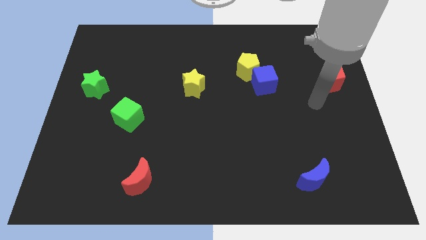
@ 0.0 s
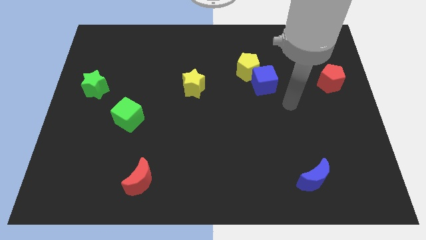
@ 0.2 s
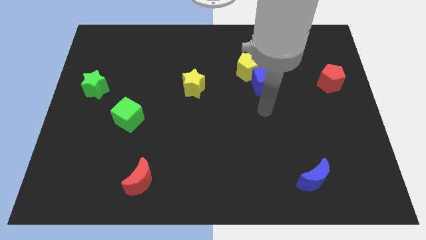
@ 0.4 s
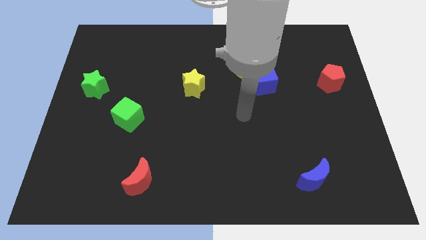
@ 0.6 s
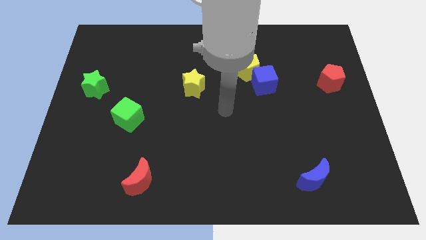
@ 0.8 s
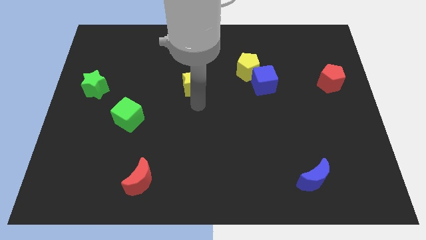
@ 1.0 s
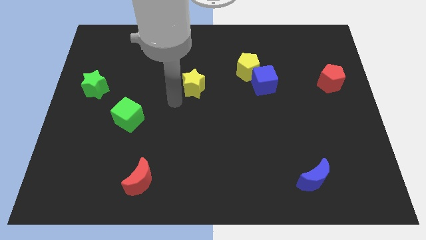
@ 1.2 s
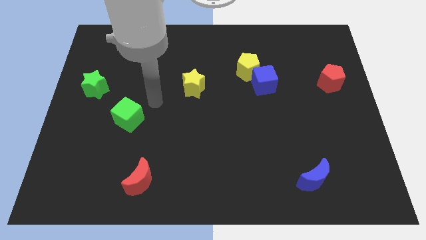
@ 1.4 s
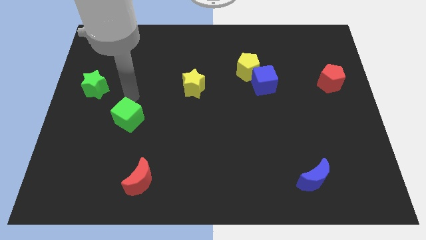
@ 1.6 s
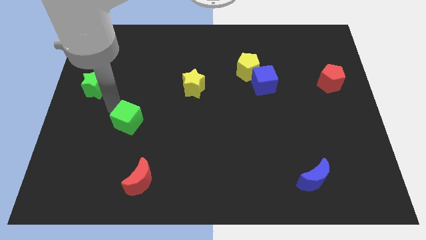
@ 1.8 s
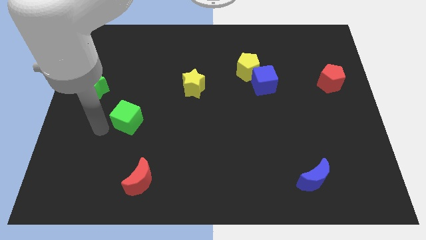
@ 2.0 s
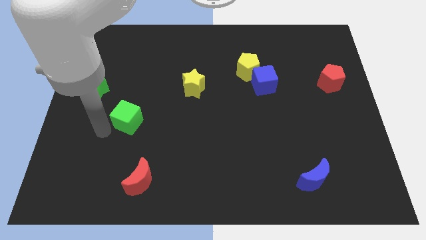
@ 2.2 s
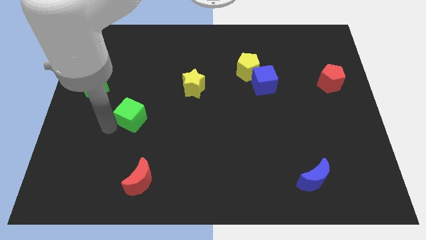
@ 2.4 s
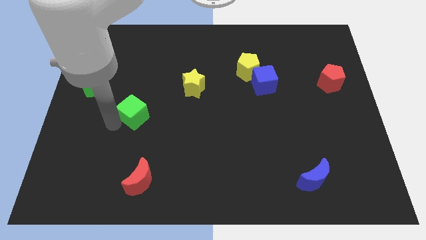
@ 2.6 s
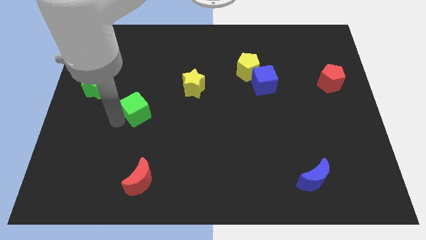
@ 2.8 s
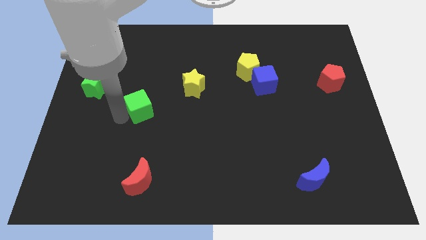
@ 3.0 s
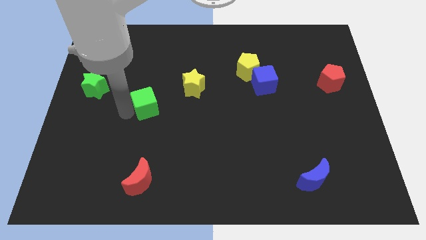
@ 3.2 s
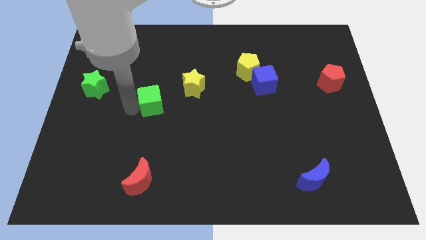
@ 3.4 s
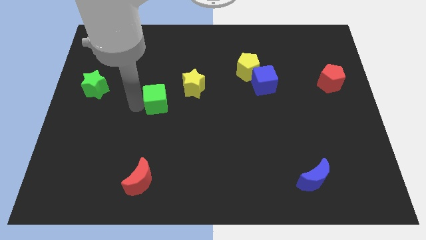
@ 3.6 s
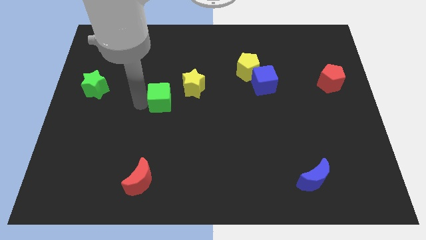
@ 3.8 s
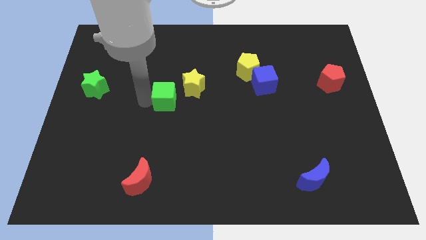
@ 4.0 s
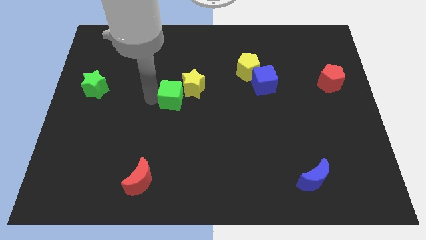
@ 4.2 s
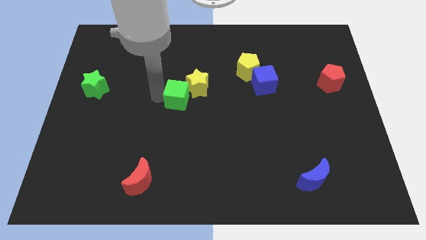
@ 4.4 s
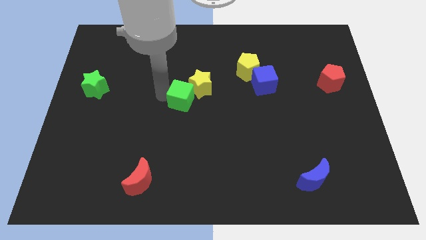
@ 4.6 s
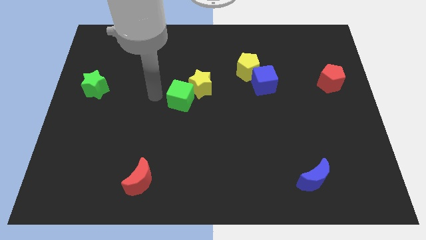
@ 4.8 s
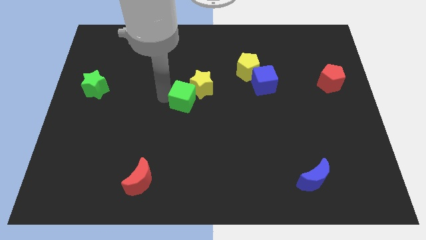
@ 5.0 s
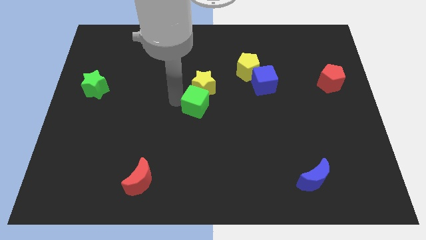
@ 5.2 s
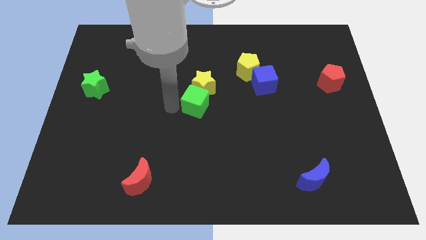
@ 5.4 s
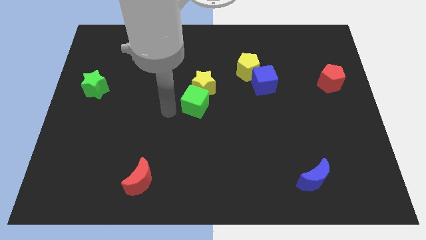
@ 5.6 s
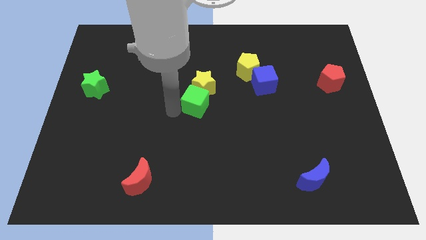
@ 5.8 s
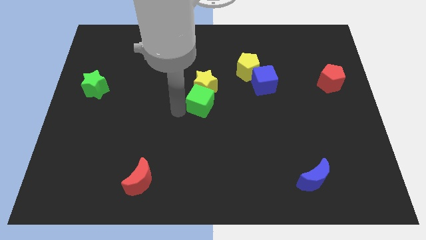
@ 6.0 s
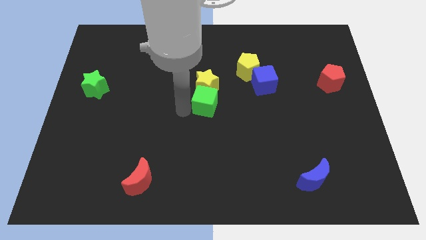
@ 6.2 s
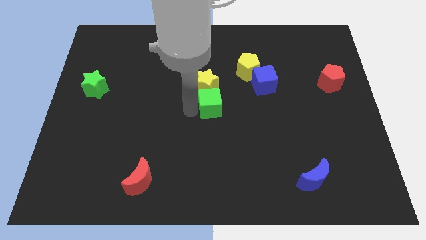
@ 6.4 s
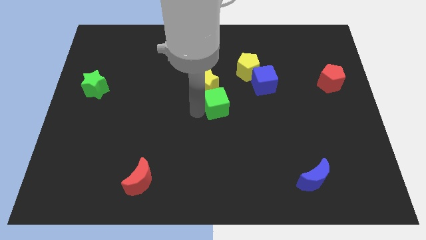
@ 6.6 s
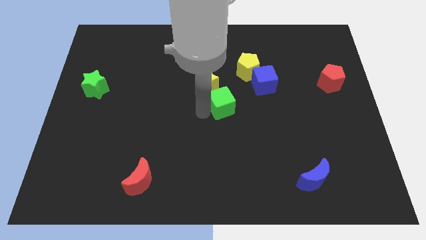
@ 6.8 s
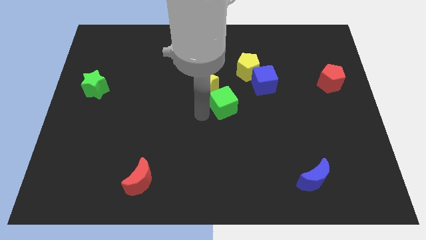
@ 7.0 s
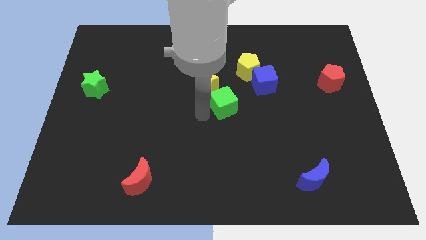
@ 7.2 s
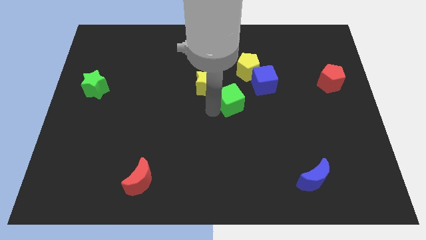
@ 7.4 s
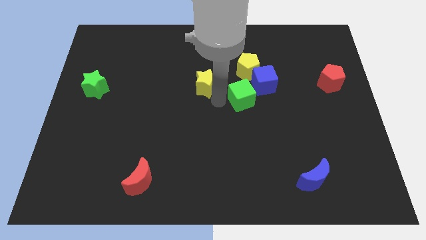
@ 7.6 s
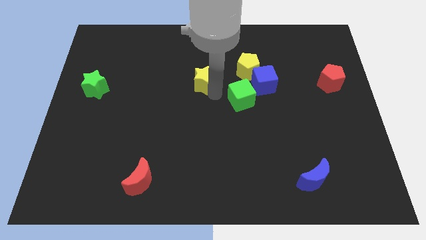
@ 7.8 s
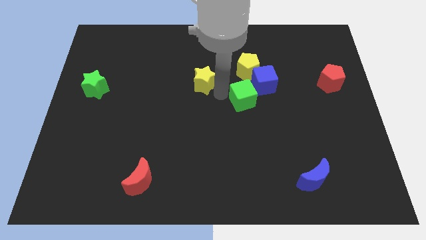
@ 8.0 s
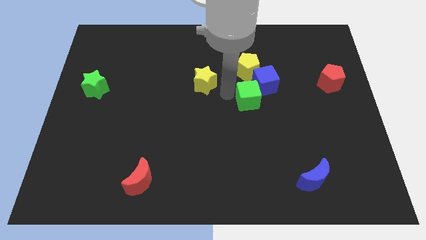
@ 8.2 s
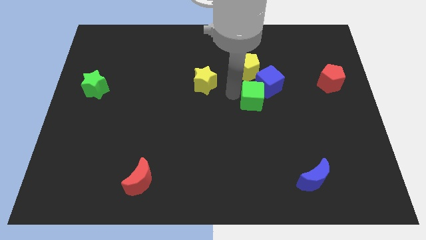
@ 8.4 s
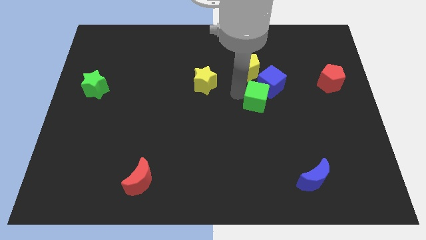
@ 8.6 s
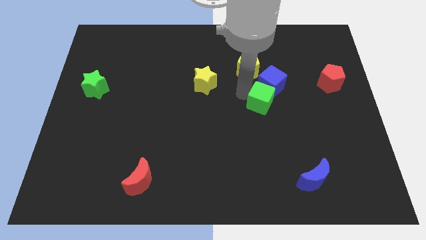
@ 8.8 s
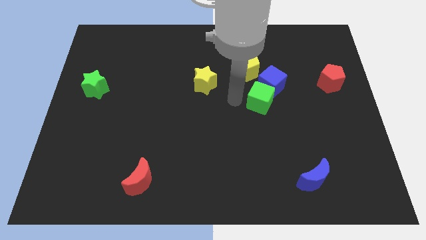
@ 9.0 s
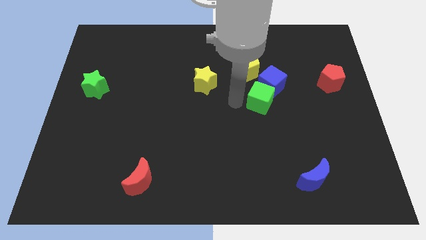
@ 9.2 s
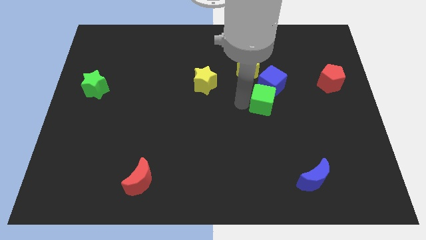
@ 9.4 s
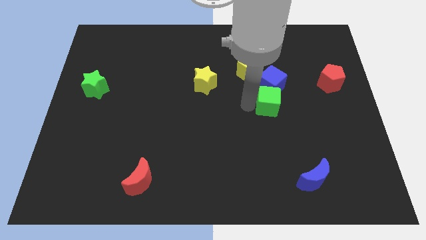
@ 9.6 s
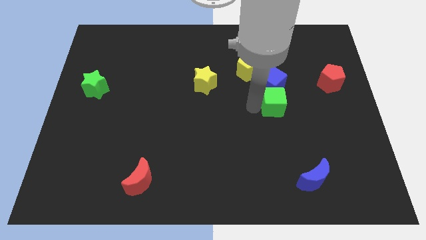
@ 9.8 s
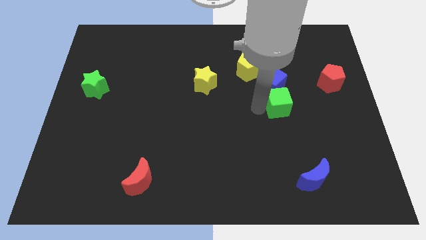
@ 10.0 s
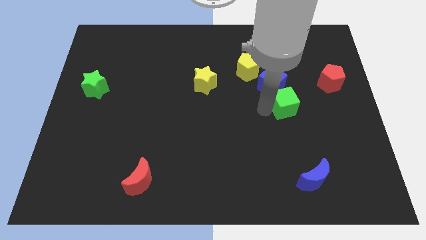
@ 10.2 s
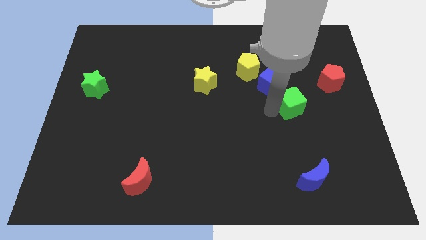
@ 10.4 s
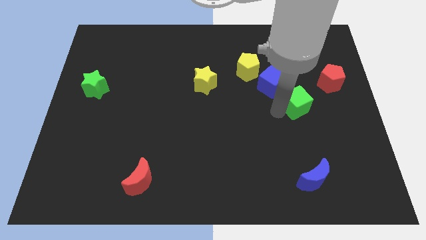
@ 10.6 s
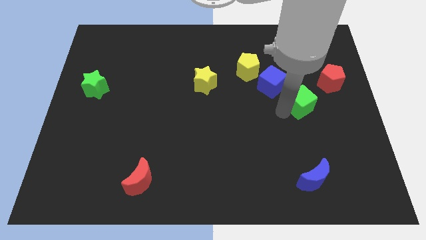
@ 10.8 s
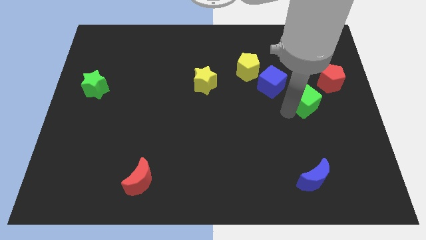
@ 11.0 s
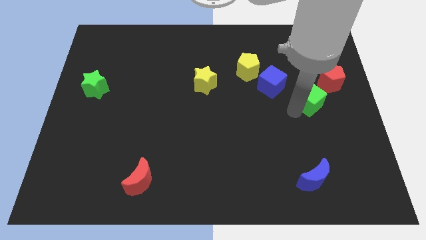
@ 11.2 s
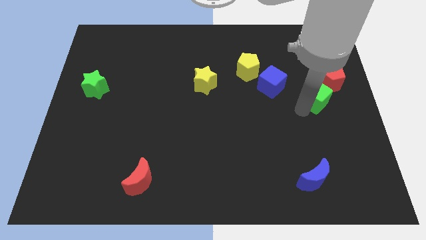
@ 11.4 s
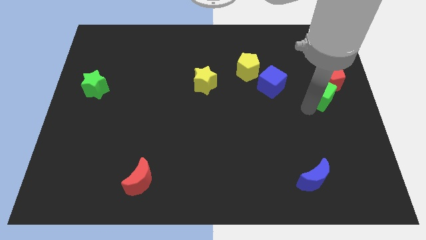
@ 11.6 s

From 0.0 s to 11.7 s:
move the green cube close to the red pentagon
